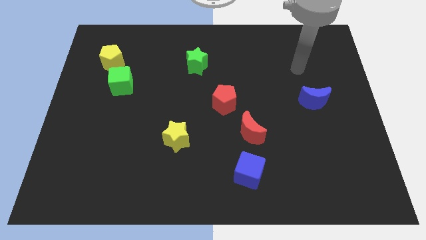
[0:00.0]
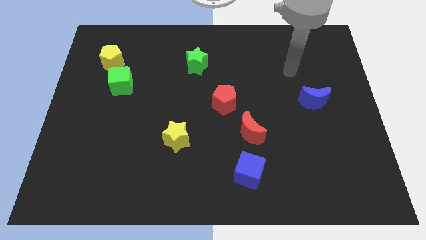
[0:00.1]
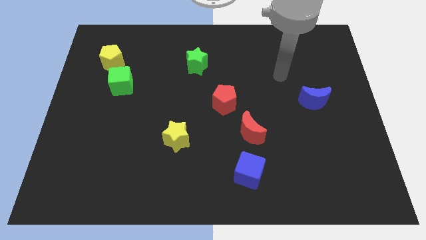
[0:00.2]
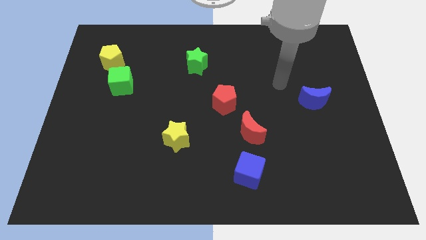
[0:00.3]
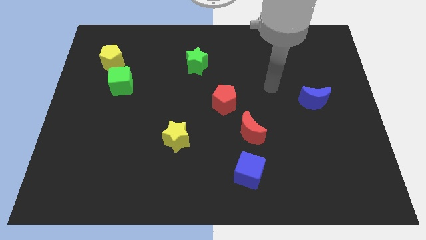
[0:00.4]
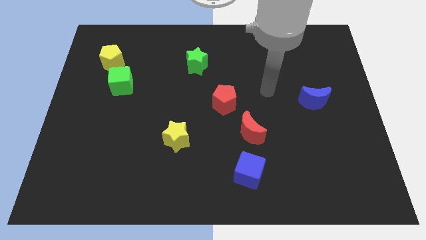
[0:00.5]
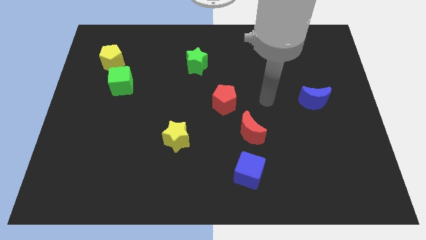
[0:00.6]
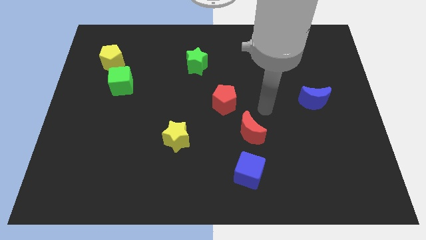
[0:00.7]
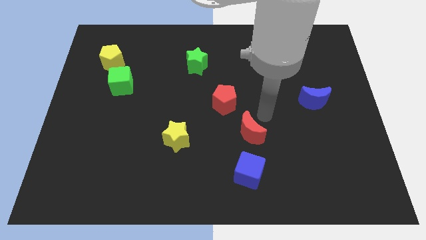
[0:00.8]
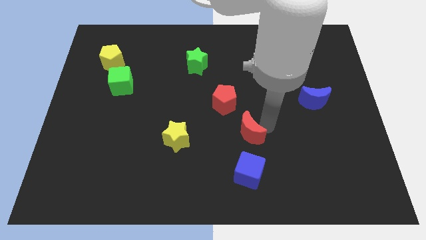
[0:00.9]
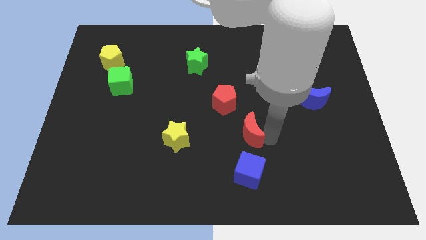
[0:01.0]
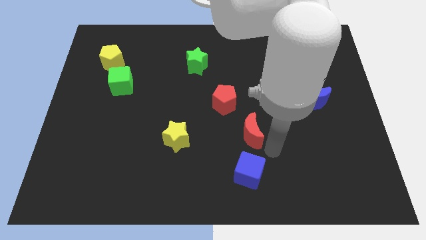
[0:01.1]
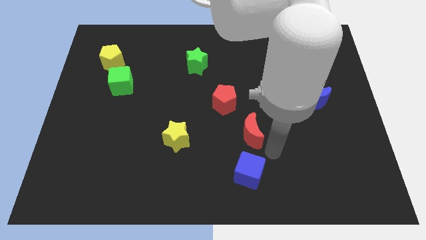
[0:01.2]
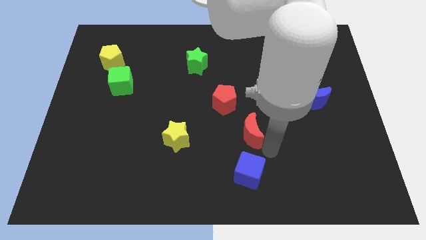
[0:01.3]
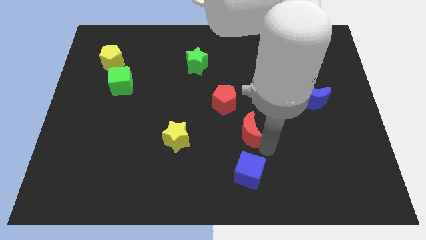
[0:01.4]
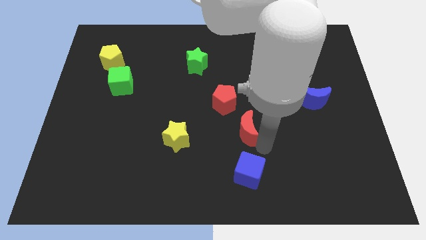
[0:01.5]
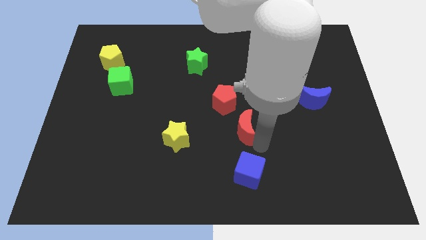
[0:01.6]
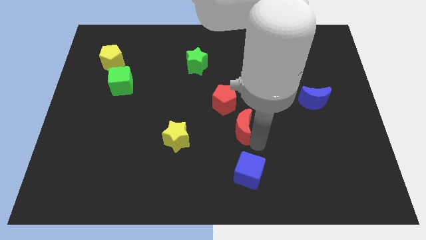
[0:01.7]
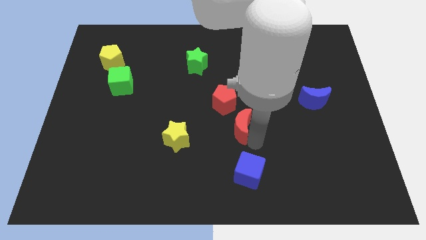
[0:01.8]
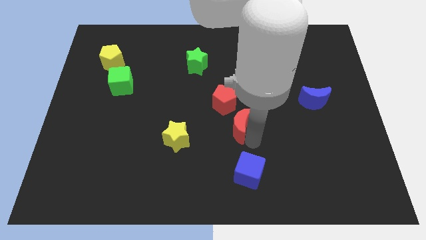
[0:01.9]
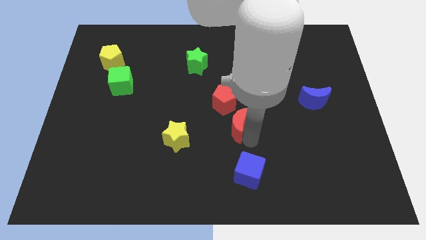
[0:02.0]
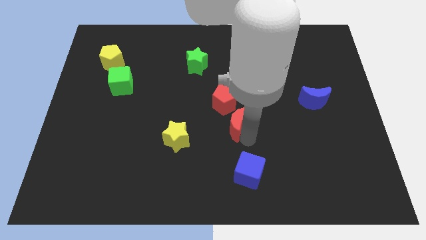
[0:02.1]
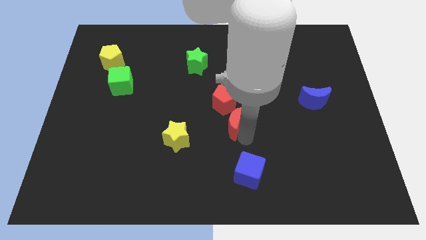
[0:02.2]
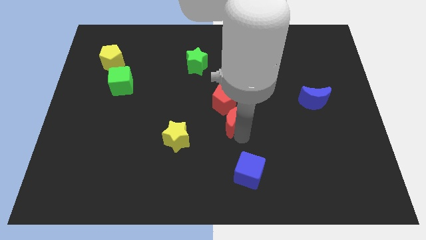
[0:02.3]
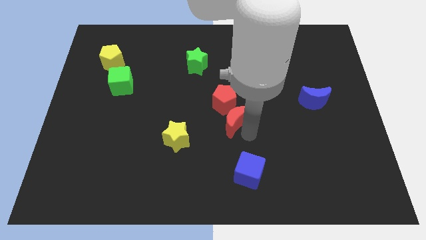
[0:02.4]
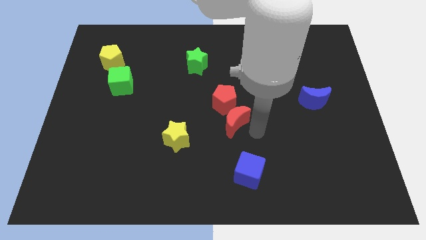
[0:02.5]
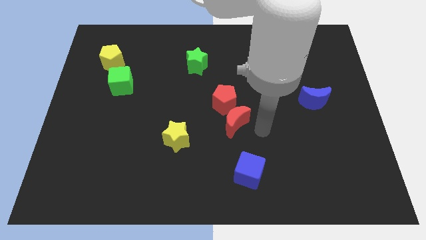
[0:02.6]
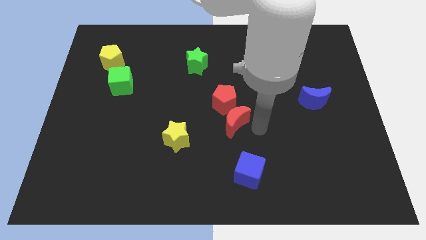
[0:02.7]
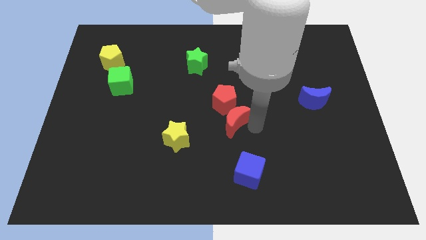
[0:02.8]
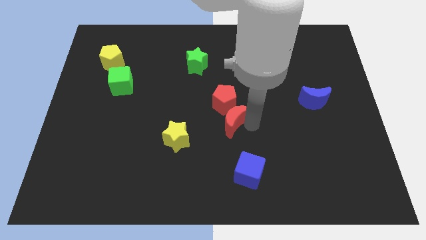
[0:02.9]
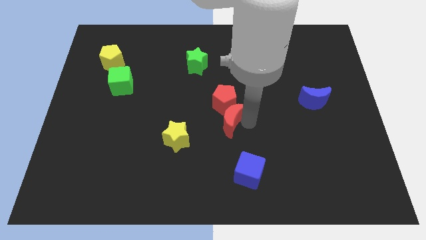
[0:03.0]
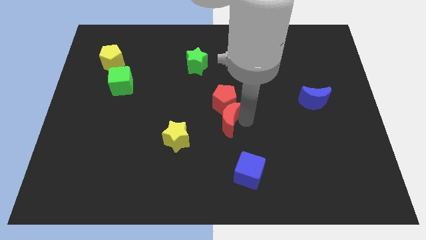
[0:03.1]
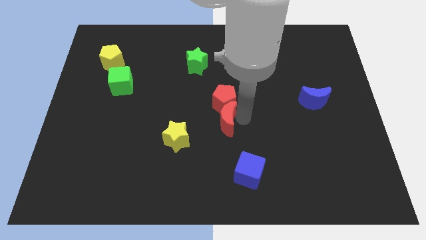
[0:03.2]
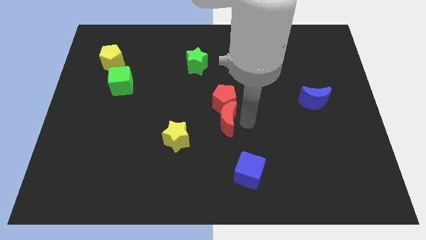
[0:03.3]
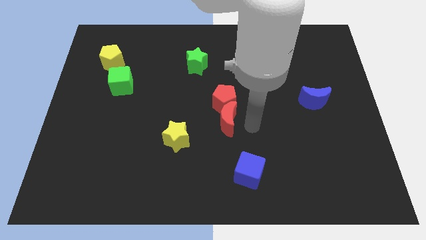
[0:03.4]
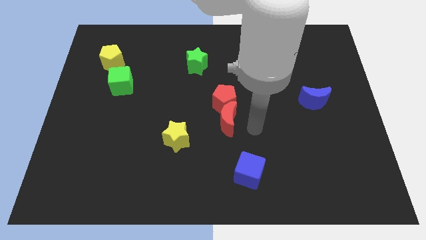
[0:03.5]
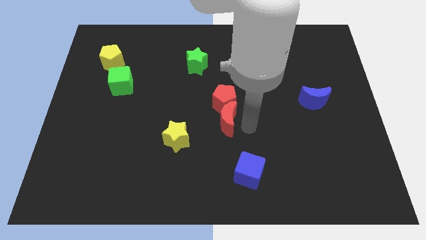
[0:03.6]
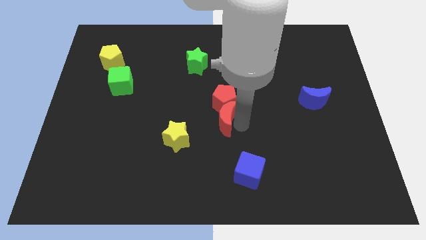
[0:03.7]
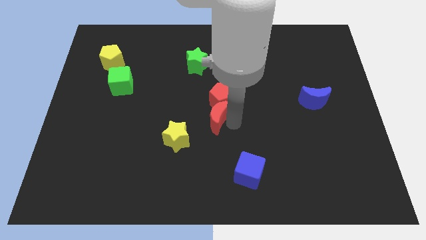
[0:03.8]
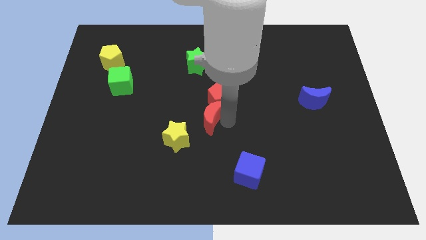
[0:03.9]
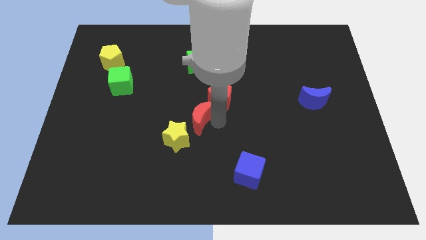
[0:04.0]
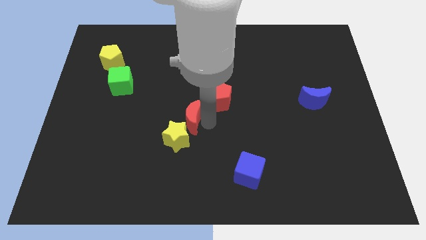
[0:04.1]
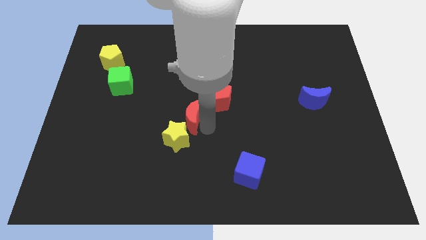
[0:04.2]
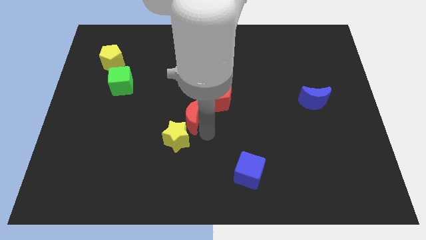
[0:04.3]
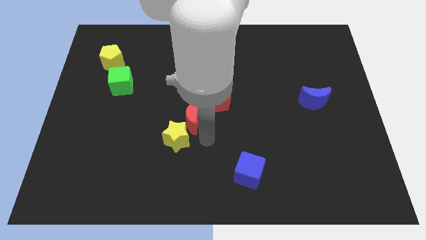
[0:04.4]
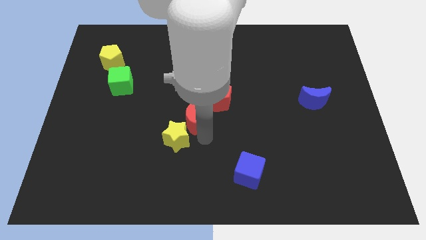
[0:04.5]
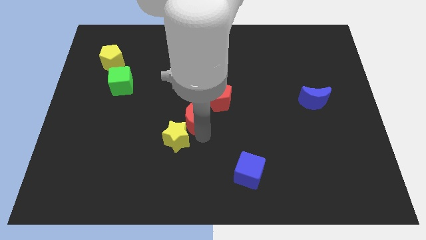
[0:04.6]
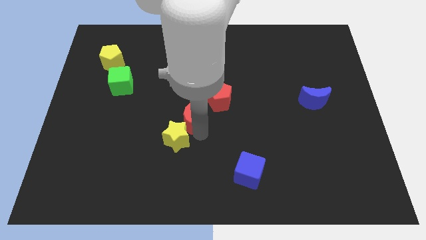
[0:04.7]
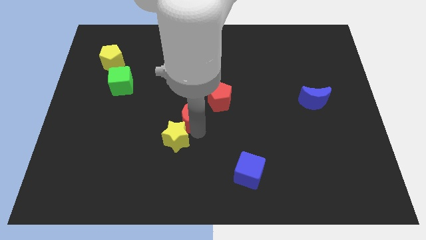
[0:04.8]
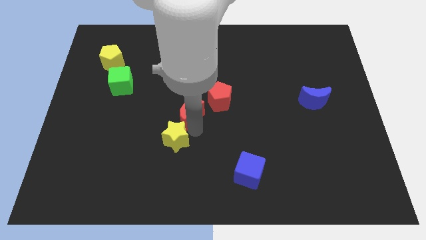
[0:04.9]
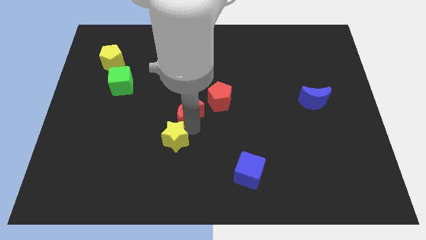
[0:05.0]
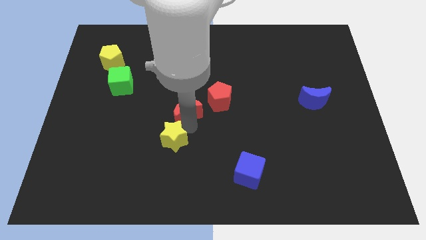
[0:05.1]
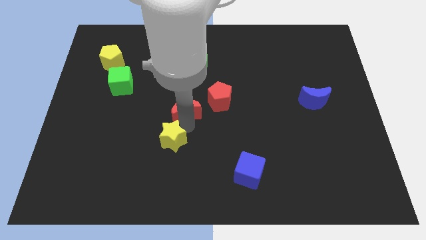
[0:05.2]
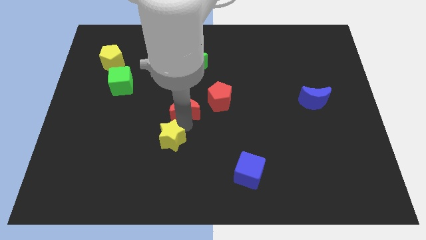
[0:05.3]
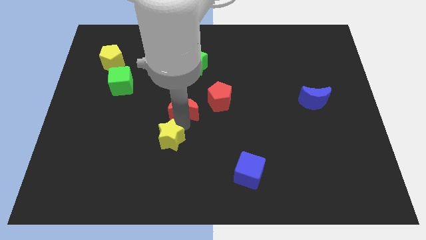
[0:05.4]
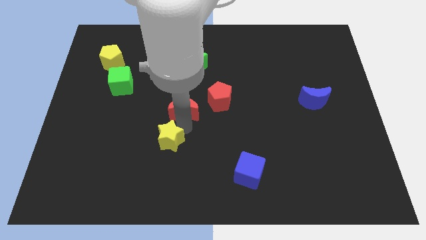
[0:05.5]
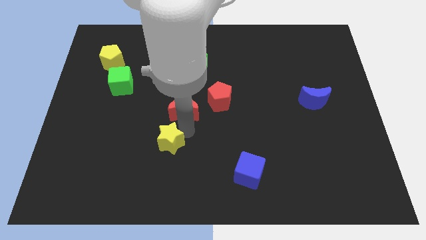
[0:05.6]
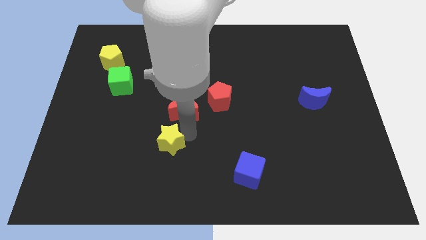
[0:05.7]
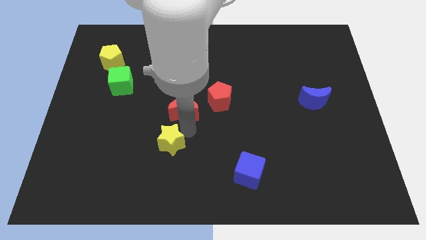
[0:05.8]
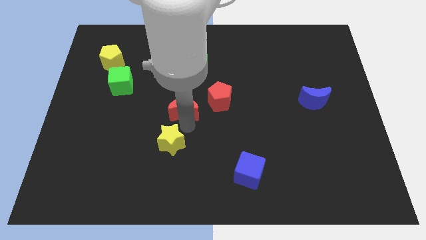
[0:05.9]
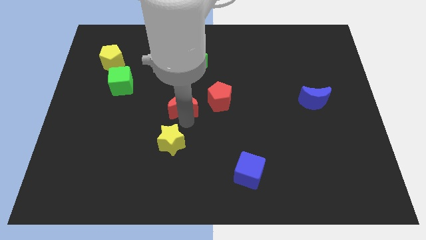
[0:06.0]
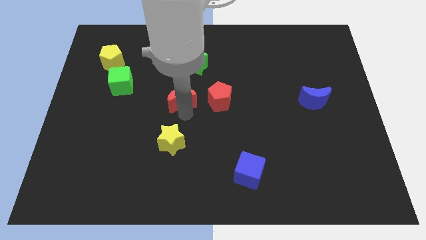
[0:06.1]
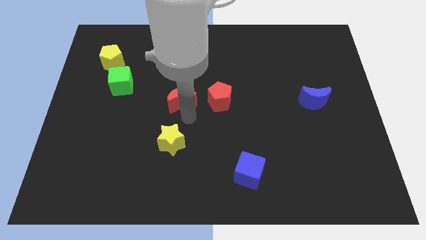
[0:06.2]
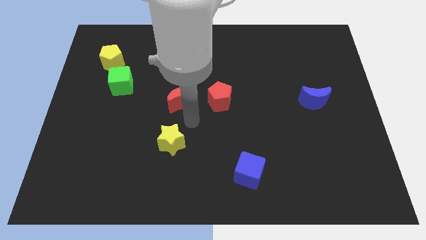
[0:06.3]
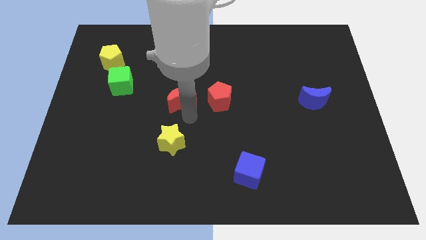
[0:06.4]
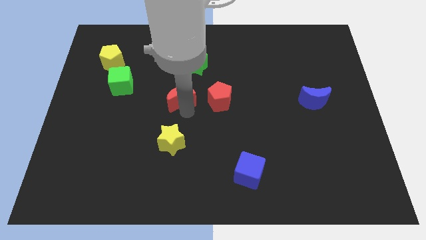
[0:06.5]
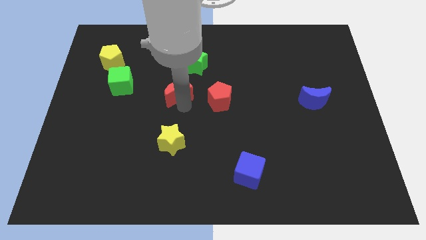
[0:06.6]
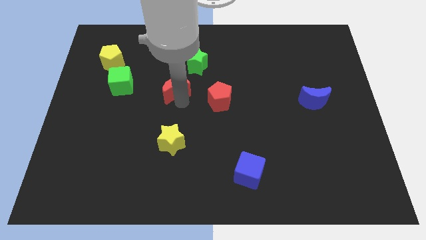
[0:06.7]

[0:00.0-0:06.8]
push the red moon upwards and left

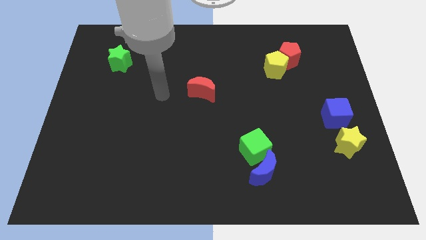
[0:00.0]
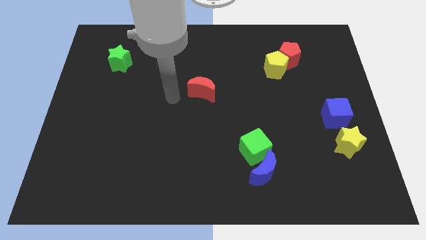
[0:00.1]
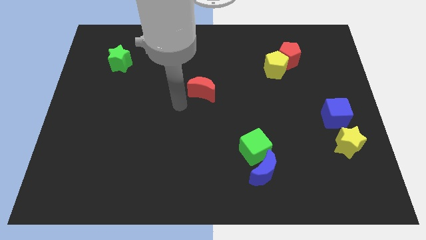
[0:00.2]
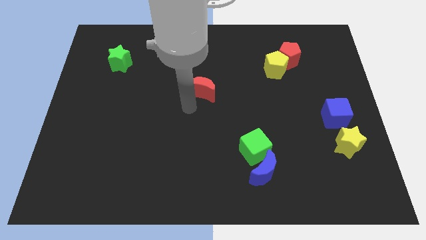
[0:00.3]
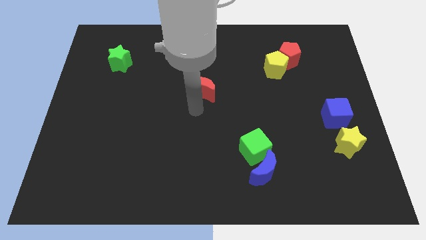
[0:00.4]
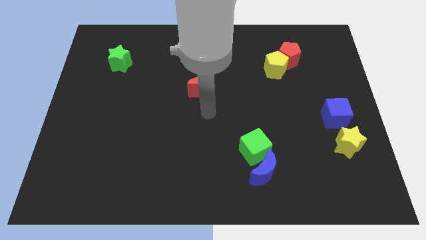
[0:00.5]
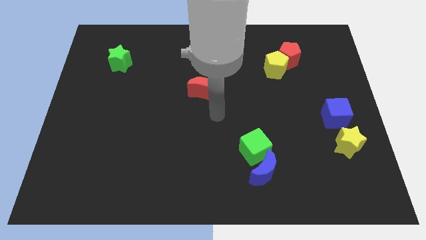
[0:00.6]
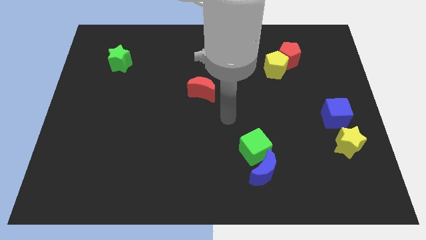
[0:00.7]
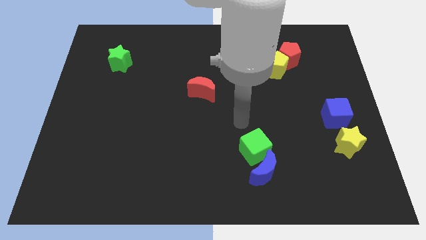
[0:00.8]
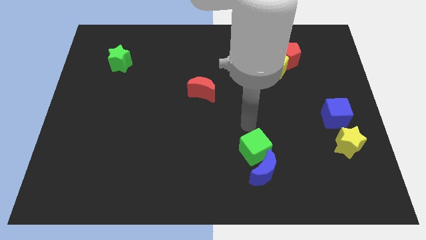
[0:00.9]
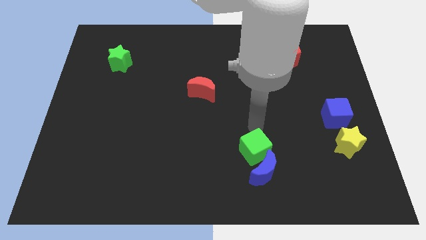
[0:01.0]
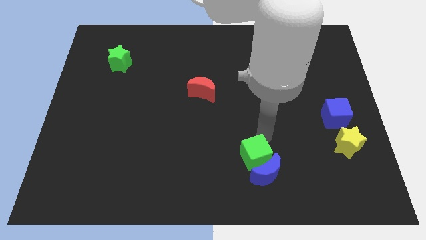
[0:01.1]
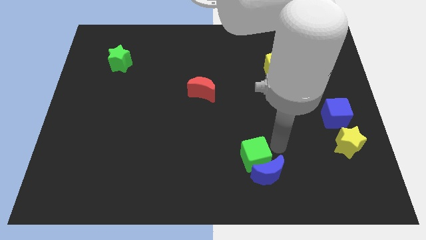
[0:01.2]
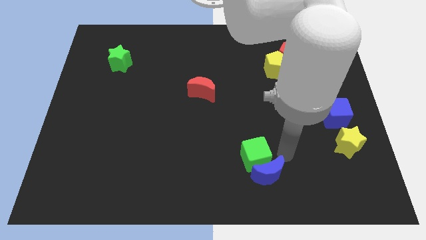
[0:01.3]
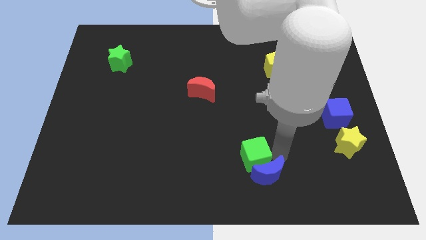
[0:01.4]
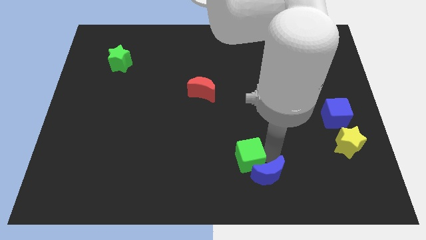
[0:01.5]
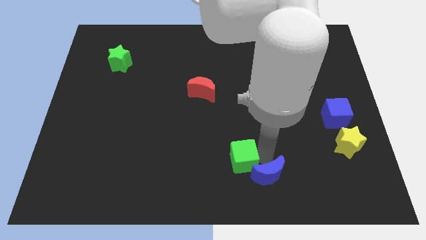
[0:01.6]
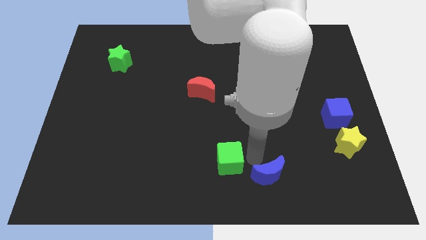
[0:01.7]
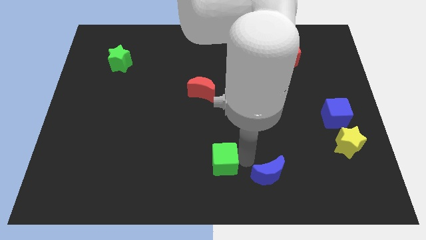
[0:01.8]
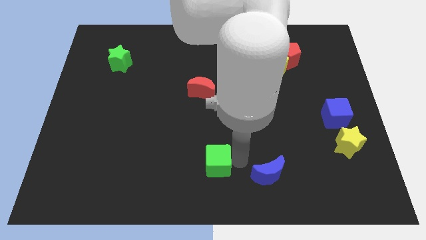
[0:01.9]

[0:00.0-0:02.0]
slightly push the green cube left
